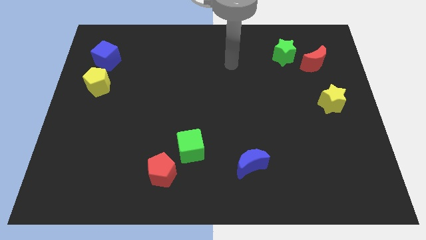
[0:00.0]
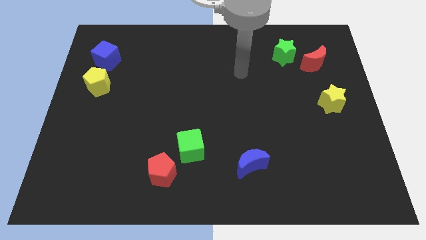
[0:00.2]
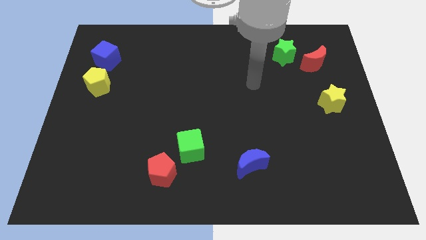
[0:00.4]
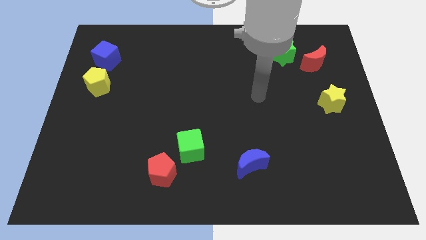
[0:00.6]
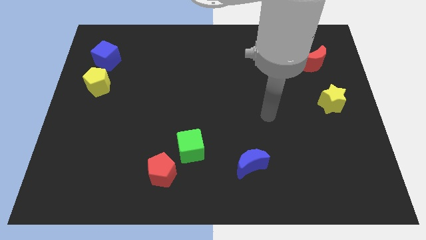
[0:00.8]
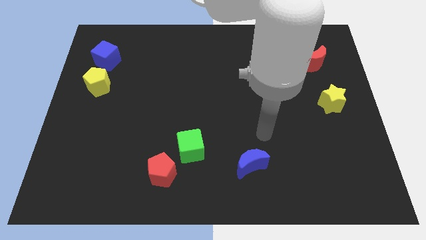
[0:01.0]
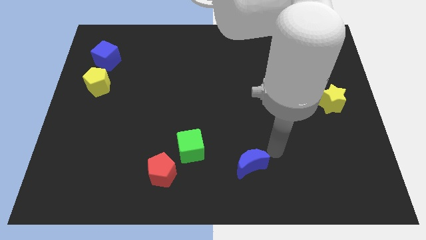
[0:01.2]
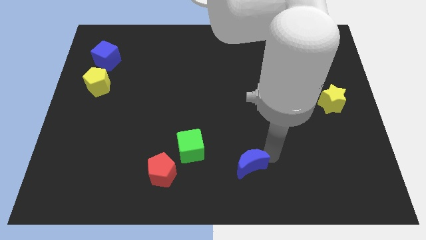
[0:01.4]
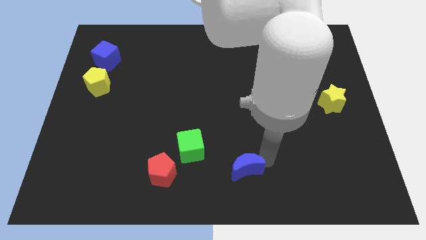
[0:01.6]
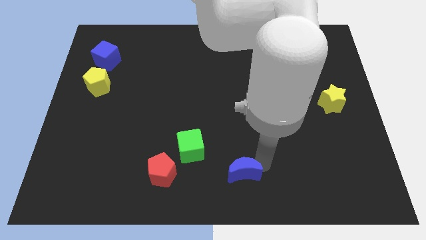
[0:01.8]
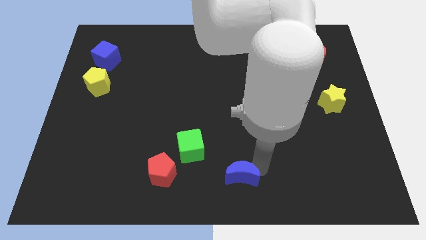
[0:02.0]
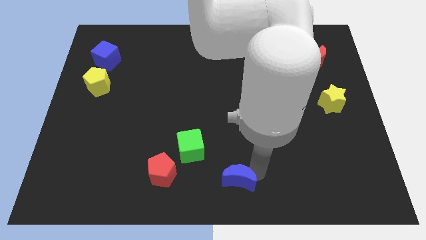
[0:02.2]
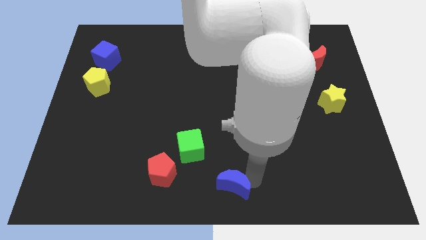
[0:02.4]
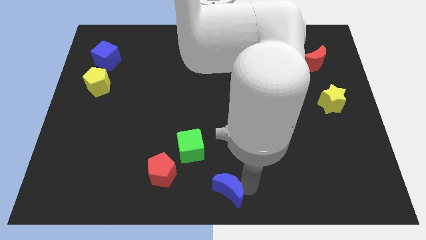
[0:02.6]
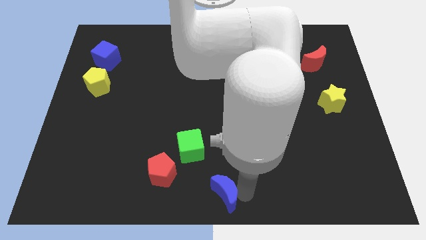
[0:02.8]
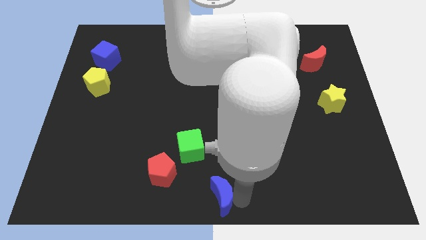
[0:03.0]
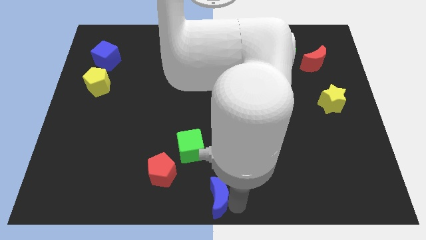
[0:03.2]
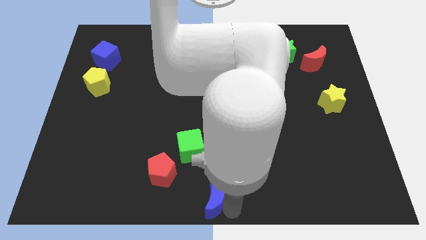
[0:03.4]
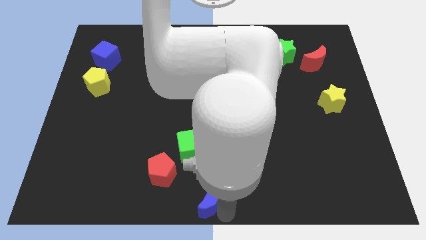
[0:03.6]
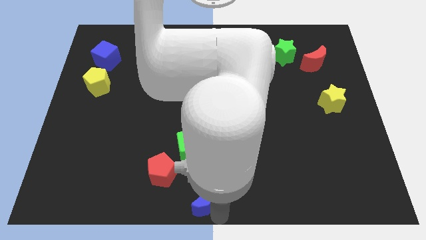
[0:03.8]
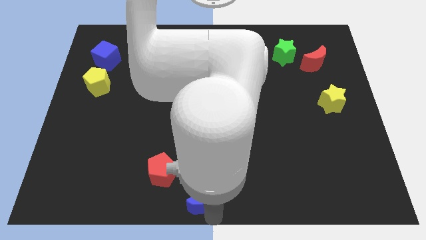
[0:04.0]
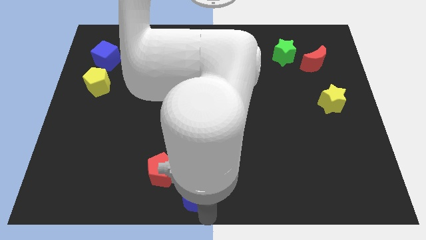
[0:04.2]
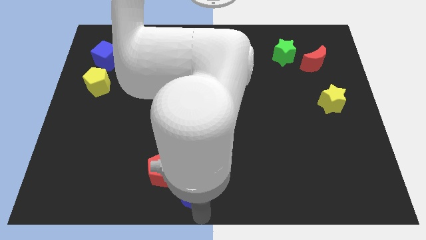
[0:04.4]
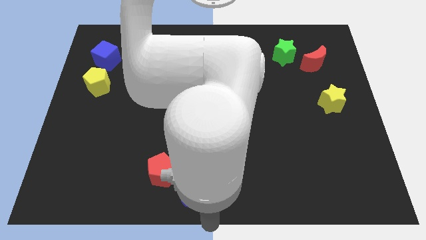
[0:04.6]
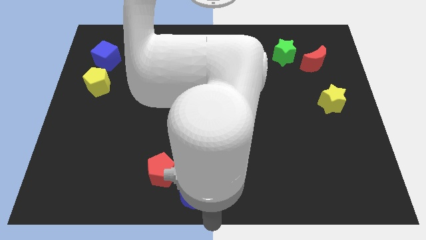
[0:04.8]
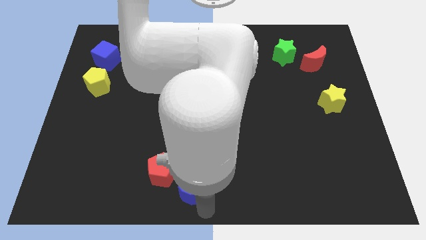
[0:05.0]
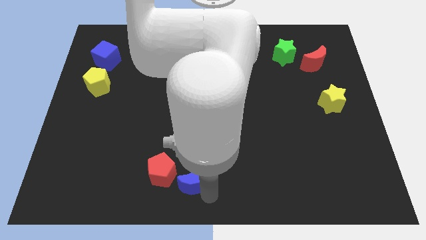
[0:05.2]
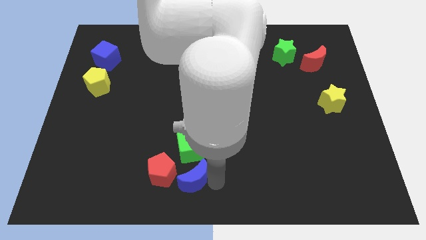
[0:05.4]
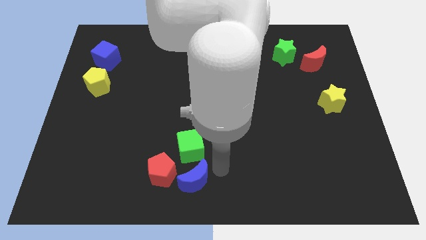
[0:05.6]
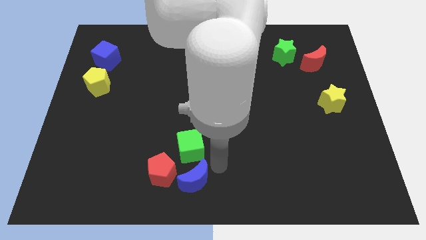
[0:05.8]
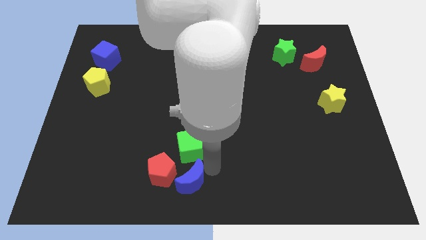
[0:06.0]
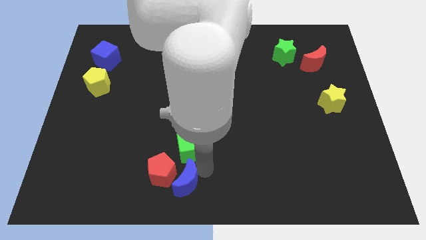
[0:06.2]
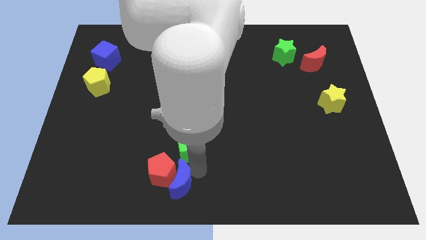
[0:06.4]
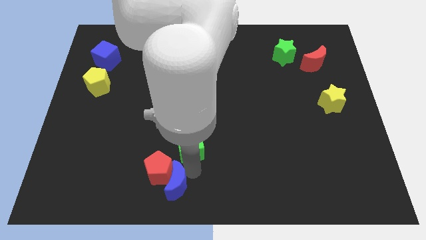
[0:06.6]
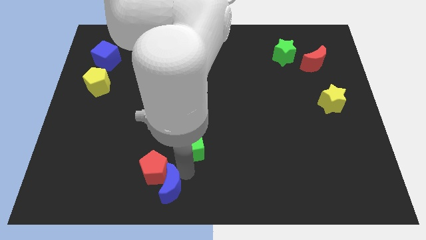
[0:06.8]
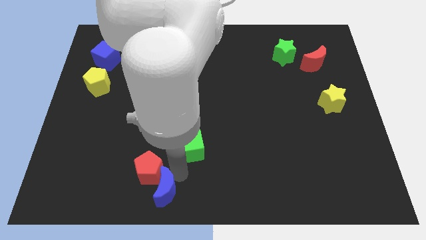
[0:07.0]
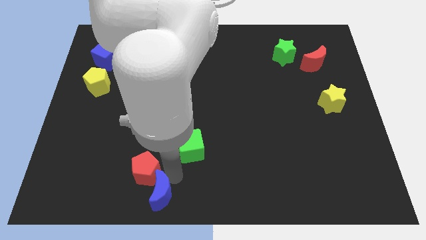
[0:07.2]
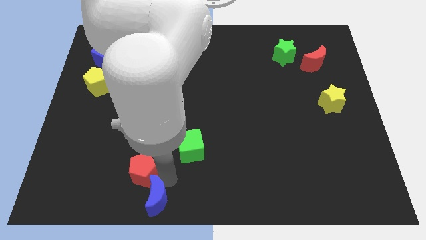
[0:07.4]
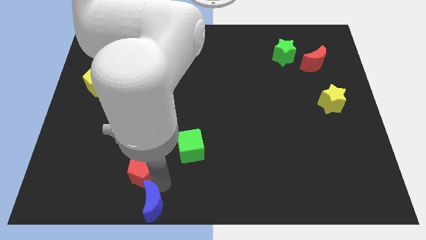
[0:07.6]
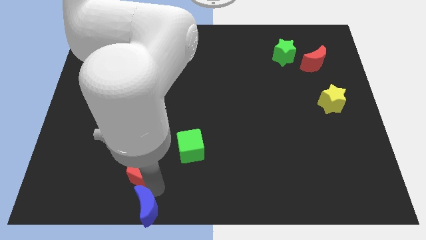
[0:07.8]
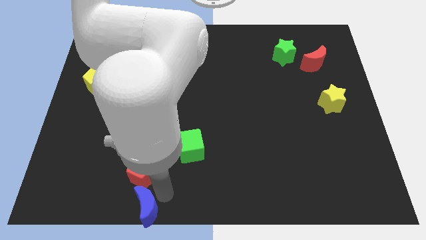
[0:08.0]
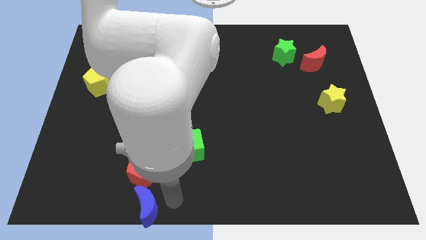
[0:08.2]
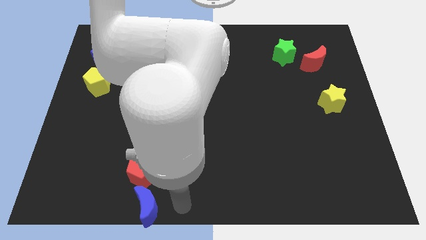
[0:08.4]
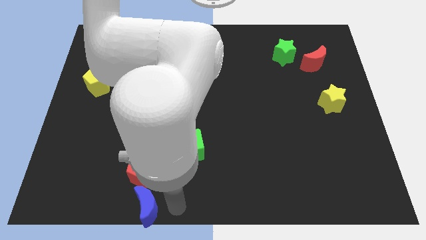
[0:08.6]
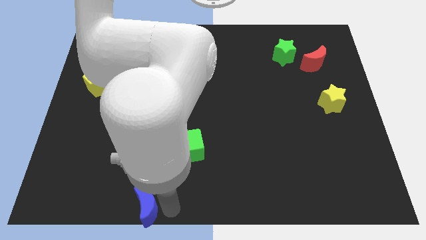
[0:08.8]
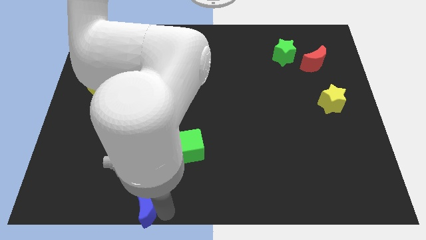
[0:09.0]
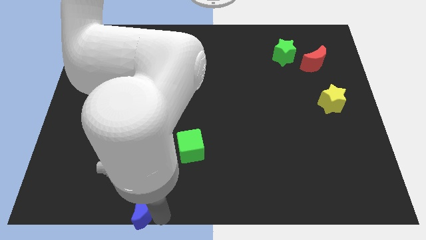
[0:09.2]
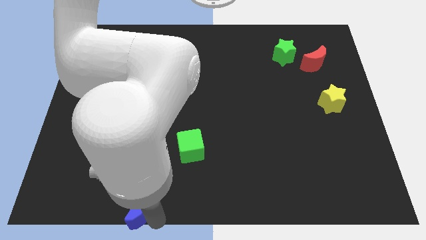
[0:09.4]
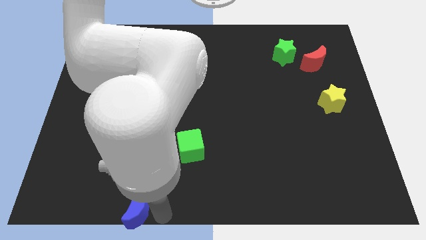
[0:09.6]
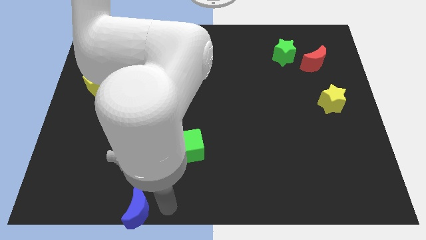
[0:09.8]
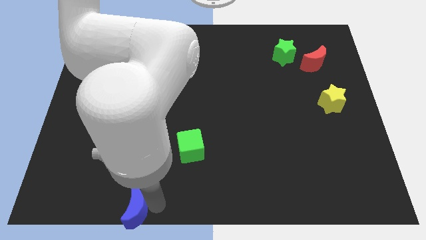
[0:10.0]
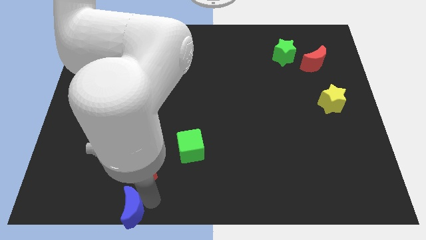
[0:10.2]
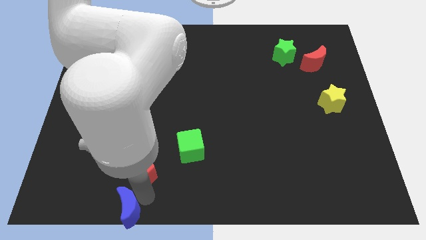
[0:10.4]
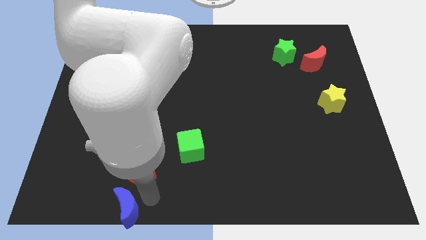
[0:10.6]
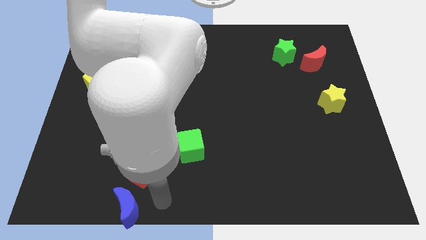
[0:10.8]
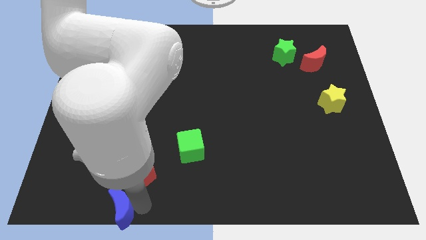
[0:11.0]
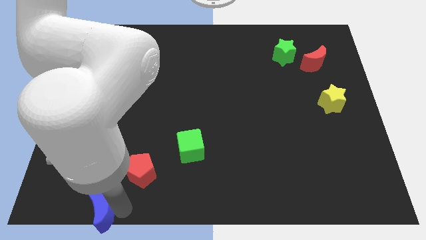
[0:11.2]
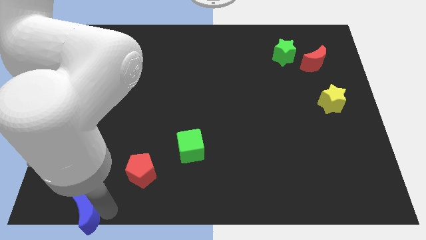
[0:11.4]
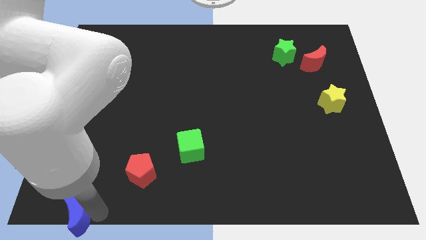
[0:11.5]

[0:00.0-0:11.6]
put the blue moon to the bottom left corner
